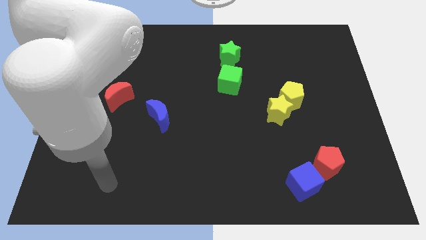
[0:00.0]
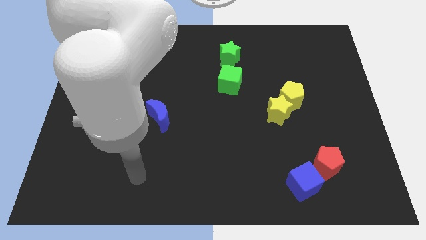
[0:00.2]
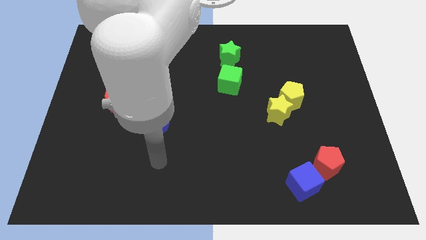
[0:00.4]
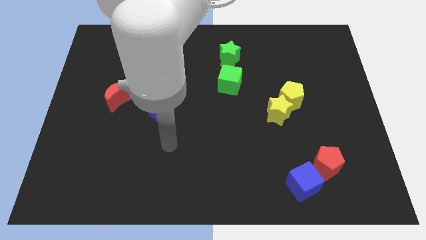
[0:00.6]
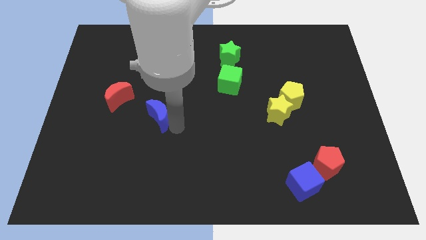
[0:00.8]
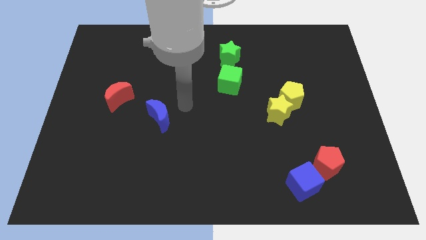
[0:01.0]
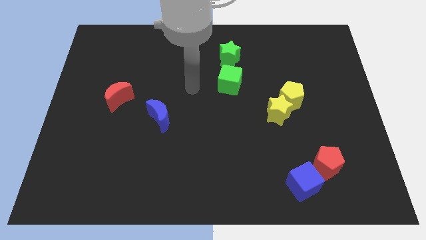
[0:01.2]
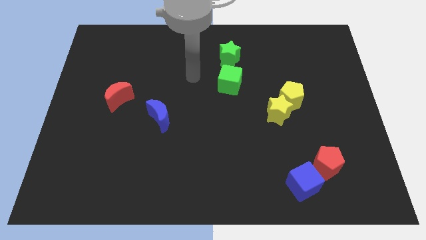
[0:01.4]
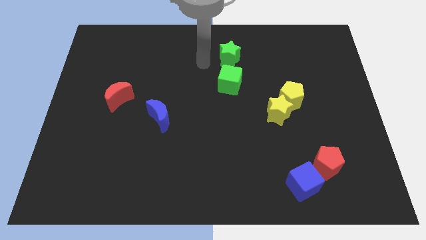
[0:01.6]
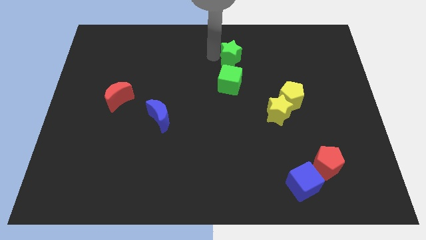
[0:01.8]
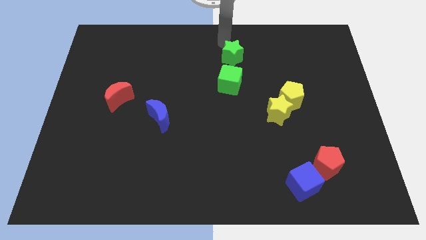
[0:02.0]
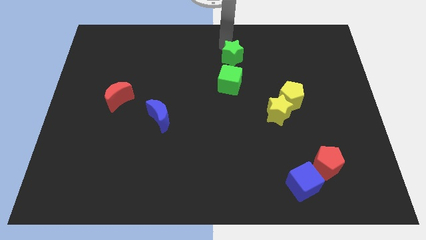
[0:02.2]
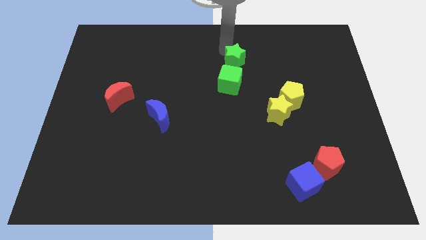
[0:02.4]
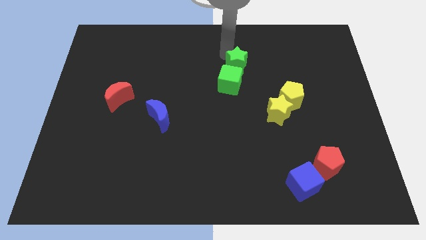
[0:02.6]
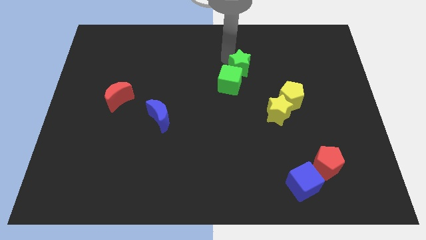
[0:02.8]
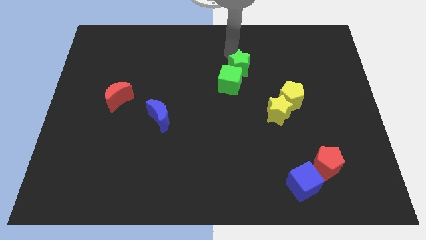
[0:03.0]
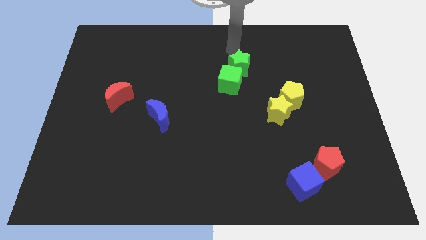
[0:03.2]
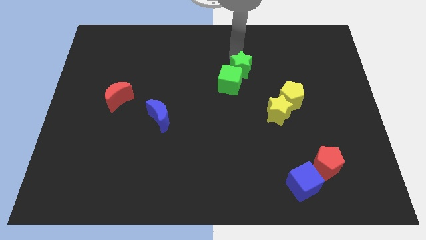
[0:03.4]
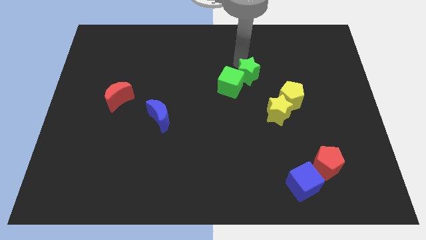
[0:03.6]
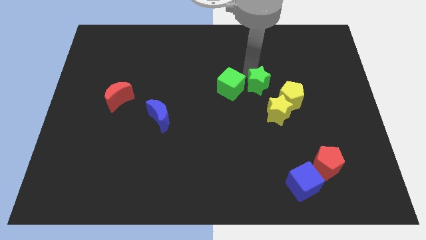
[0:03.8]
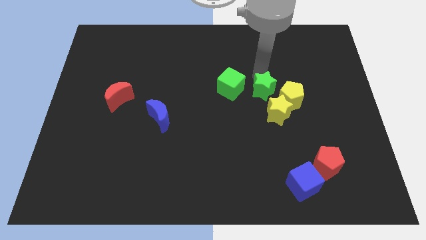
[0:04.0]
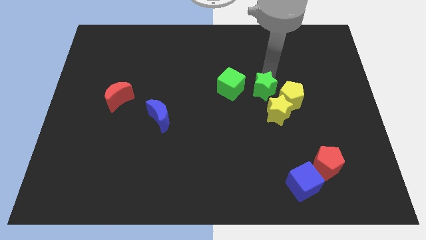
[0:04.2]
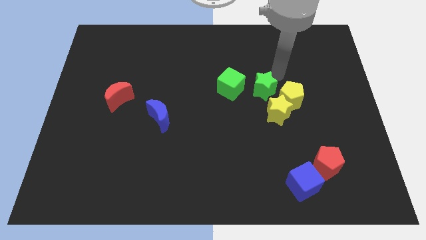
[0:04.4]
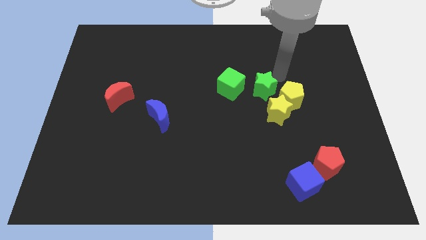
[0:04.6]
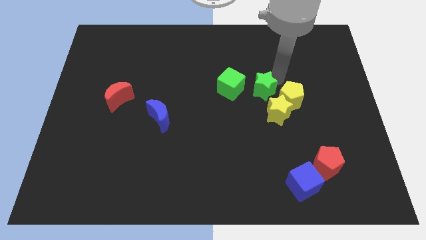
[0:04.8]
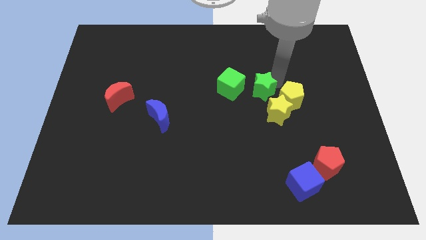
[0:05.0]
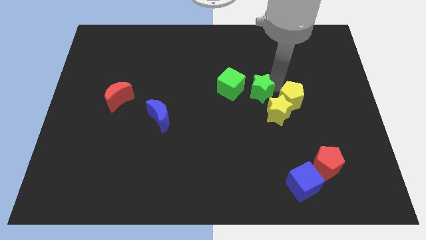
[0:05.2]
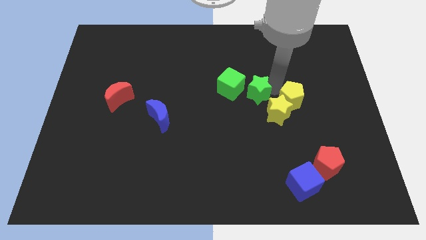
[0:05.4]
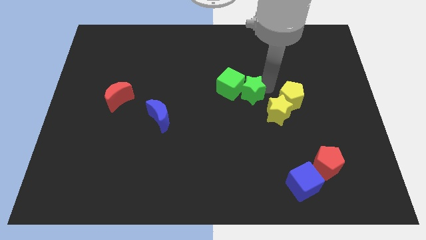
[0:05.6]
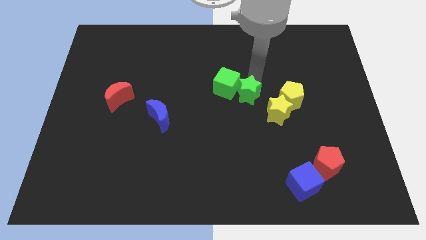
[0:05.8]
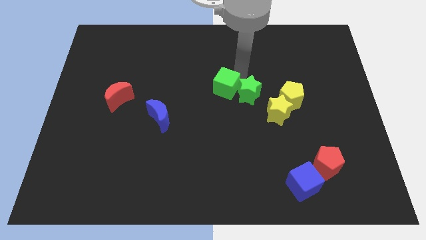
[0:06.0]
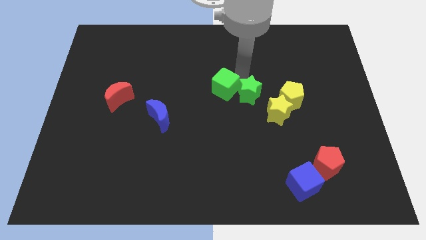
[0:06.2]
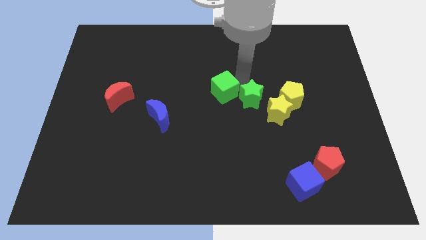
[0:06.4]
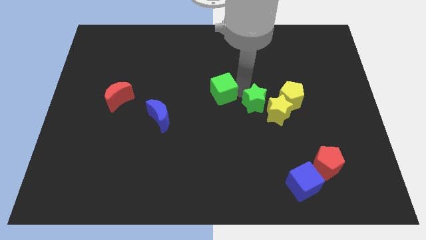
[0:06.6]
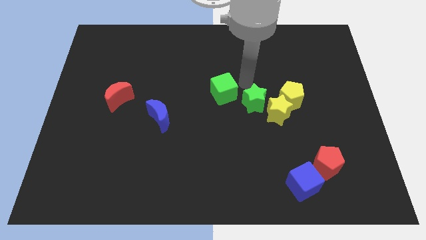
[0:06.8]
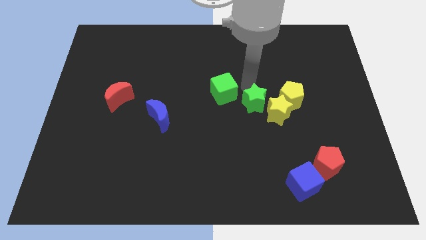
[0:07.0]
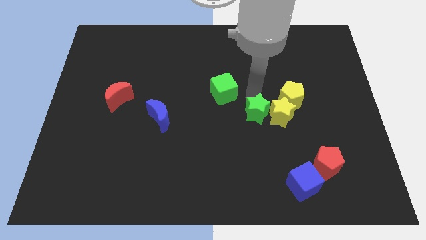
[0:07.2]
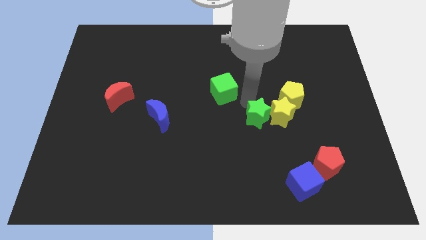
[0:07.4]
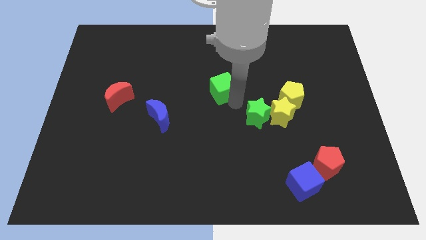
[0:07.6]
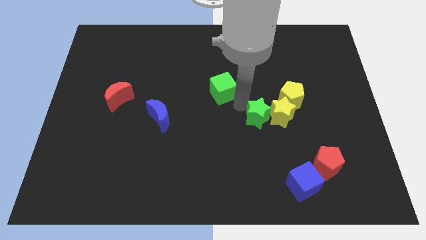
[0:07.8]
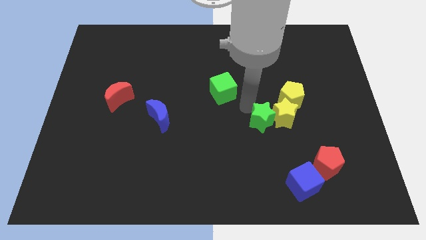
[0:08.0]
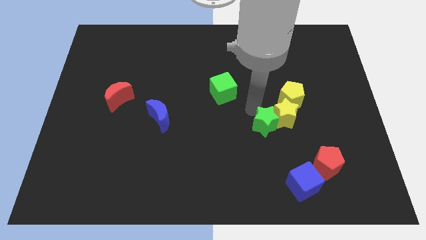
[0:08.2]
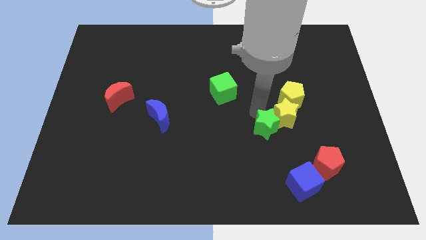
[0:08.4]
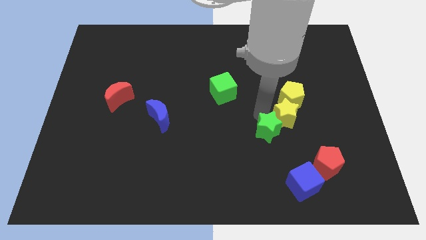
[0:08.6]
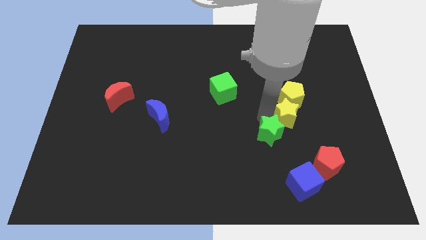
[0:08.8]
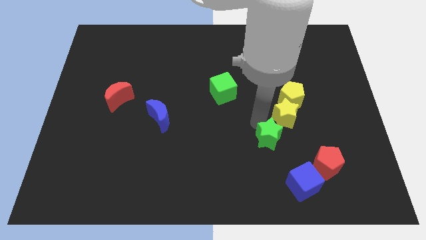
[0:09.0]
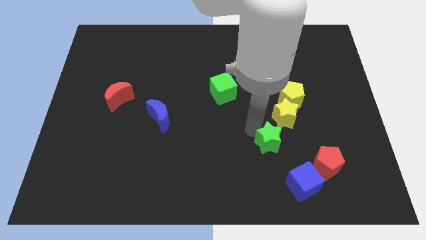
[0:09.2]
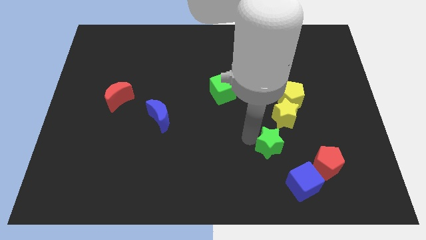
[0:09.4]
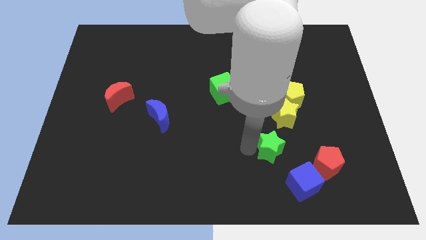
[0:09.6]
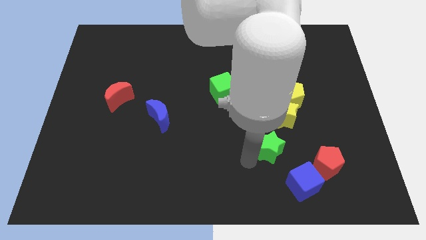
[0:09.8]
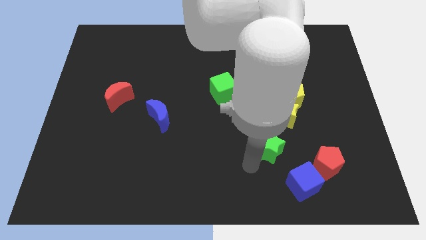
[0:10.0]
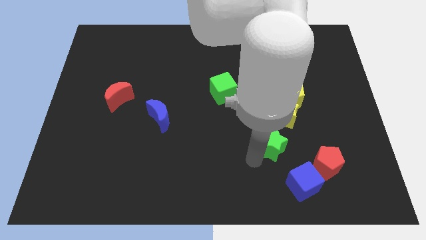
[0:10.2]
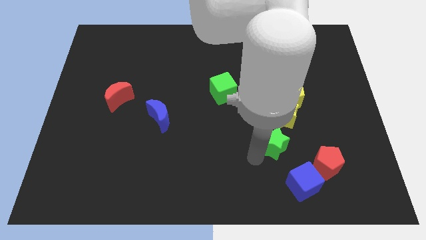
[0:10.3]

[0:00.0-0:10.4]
slide the green star diagonally up and to the left of the red pentagon

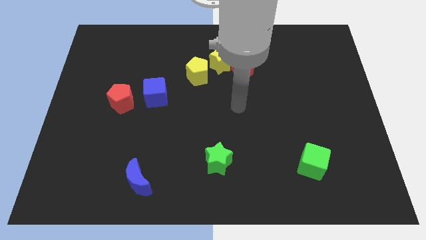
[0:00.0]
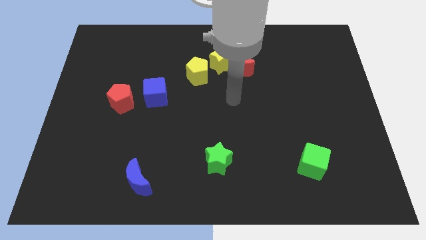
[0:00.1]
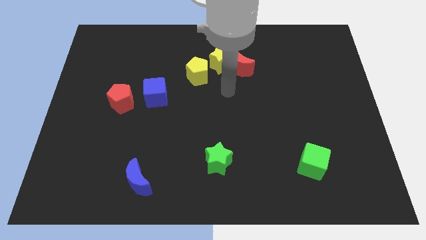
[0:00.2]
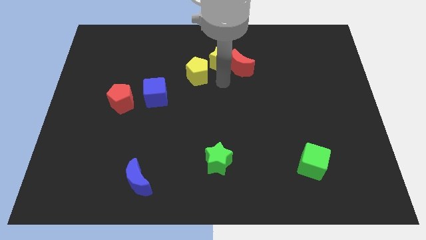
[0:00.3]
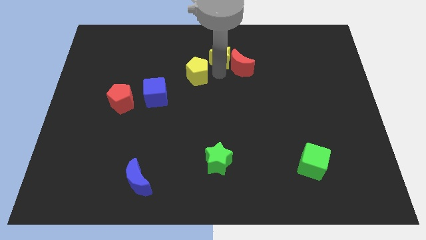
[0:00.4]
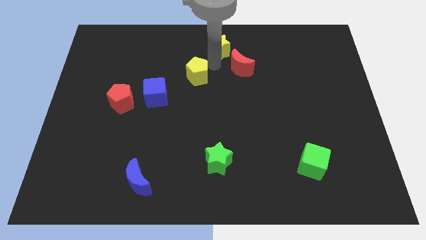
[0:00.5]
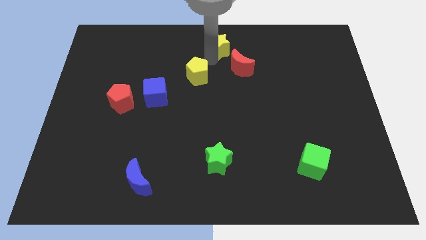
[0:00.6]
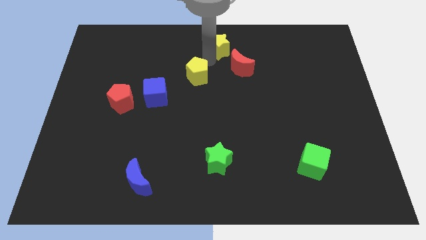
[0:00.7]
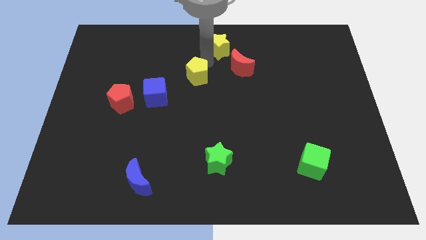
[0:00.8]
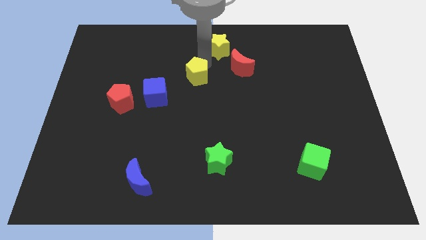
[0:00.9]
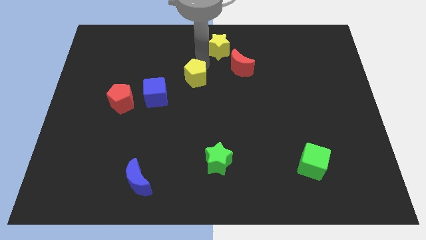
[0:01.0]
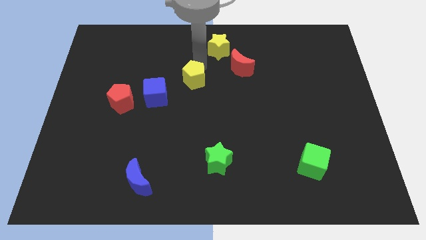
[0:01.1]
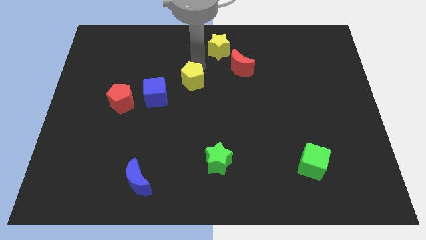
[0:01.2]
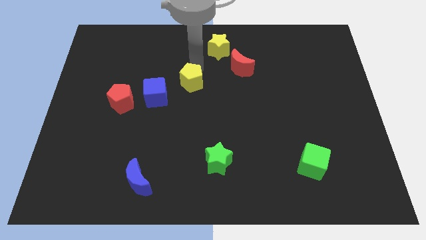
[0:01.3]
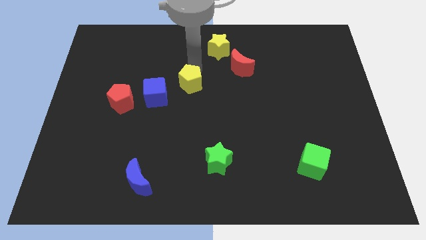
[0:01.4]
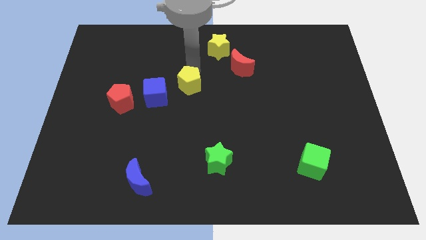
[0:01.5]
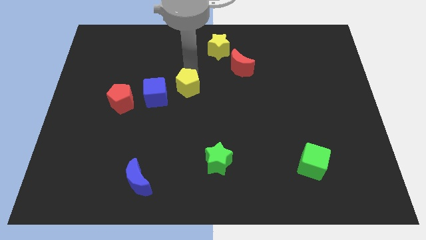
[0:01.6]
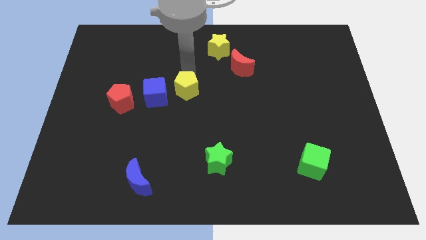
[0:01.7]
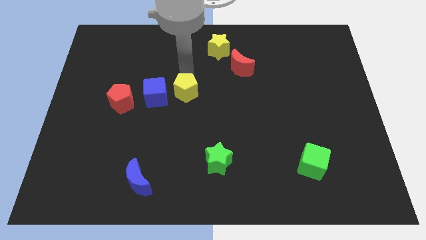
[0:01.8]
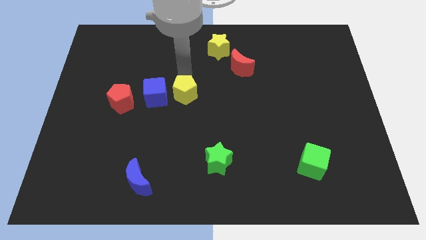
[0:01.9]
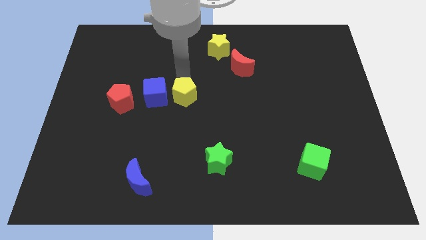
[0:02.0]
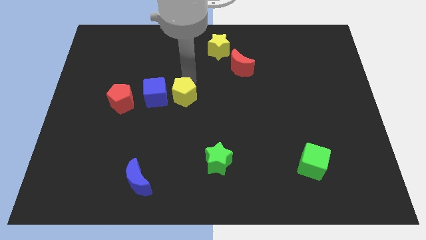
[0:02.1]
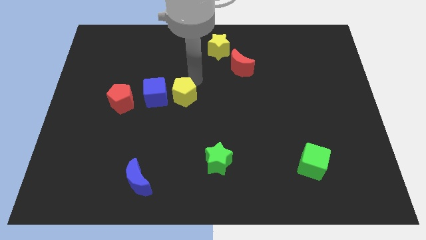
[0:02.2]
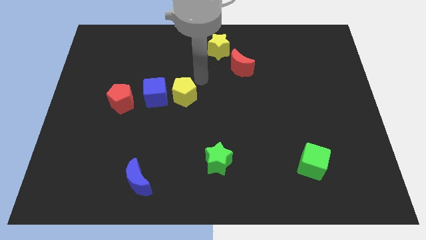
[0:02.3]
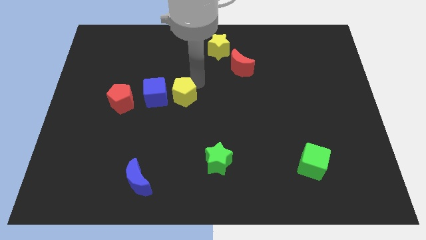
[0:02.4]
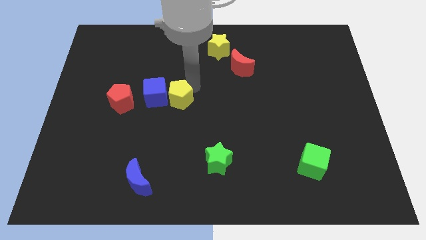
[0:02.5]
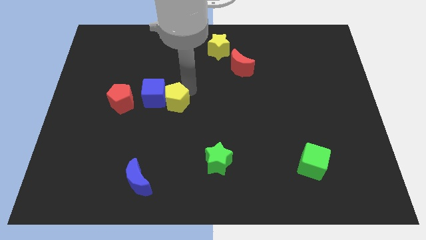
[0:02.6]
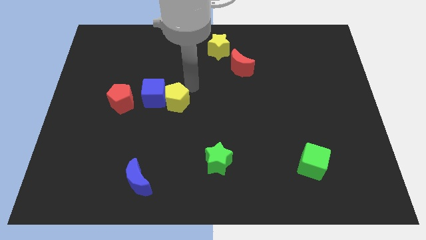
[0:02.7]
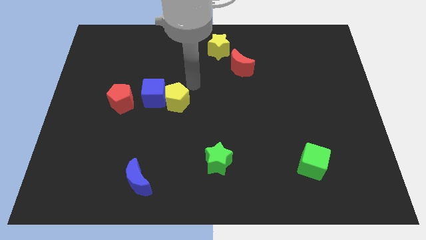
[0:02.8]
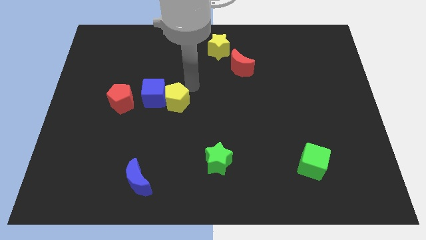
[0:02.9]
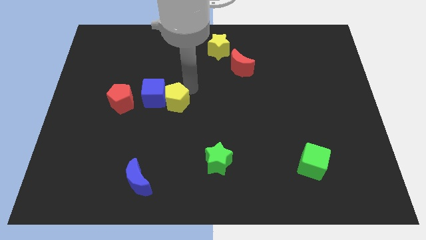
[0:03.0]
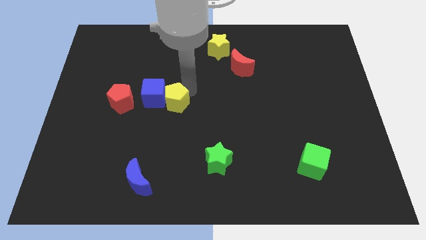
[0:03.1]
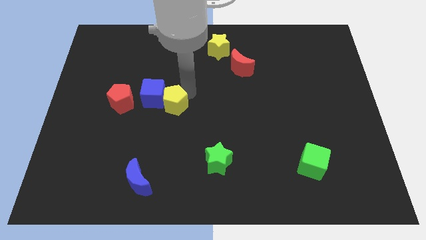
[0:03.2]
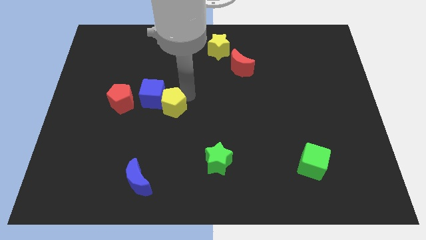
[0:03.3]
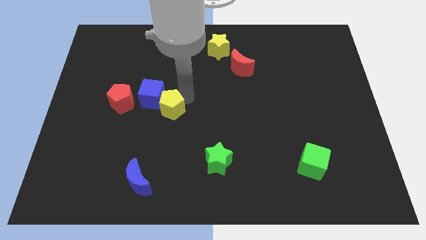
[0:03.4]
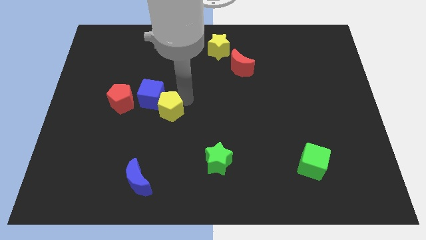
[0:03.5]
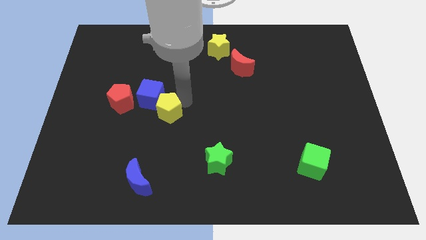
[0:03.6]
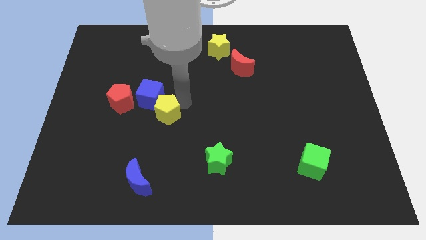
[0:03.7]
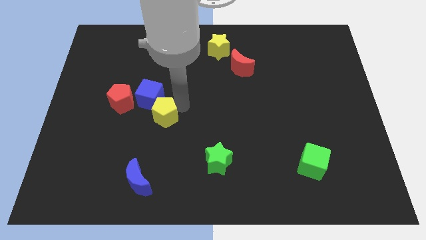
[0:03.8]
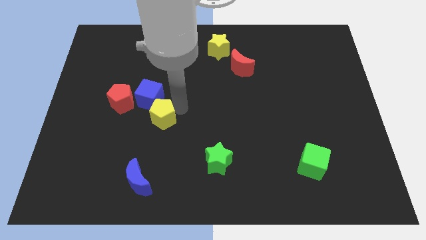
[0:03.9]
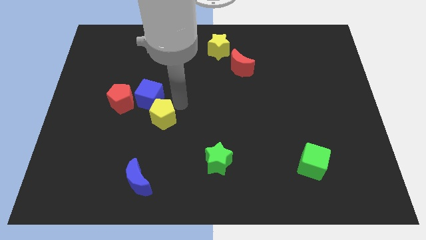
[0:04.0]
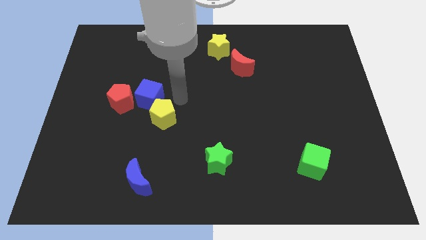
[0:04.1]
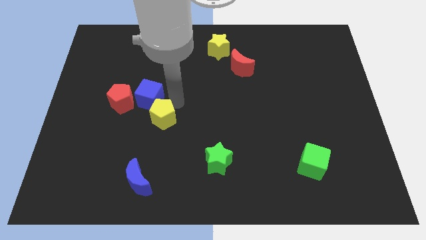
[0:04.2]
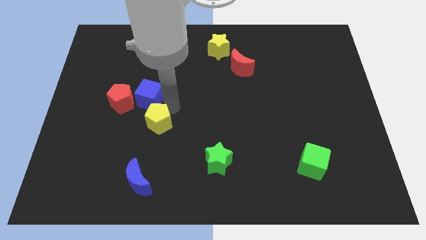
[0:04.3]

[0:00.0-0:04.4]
put the yellow pentagon to the top side of the blue moon
